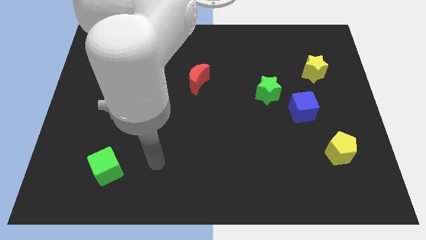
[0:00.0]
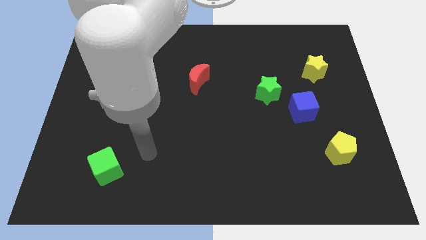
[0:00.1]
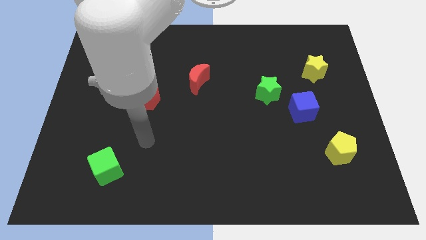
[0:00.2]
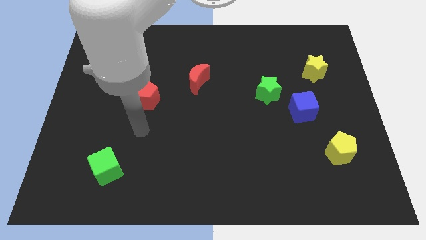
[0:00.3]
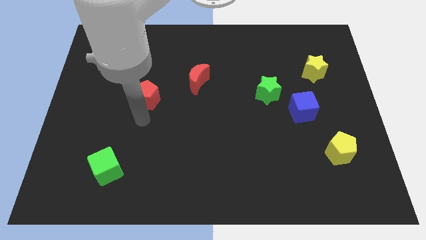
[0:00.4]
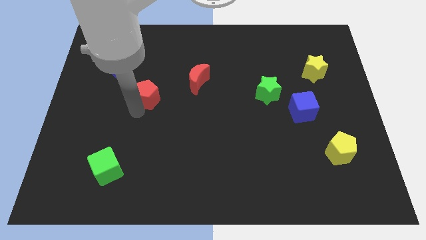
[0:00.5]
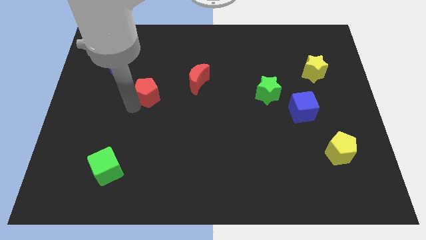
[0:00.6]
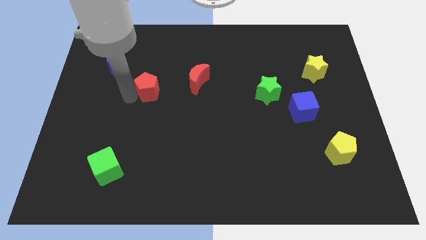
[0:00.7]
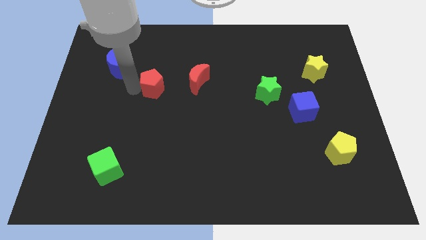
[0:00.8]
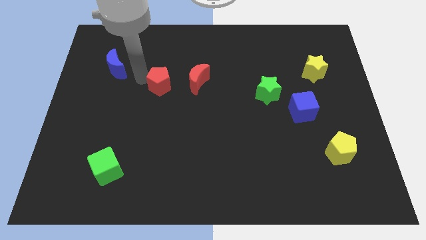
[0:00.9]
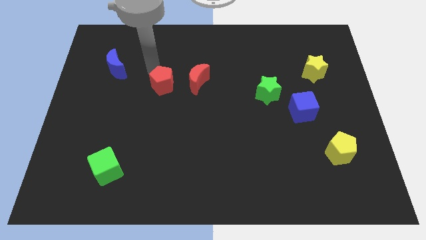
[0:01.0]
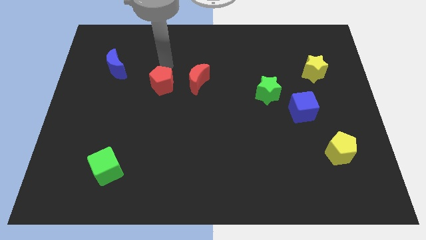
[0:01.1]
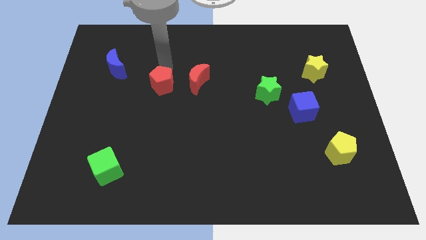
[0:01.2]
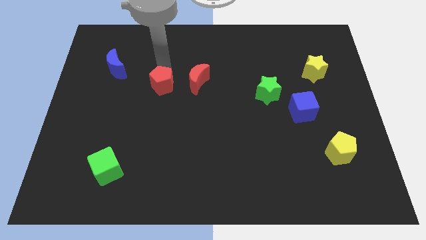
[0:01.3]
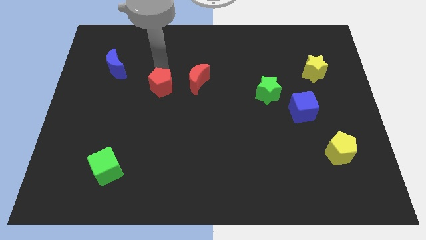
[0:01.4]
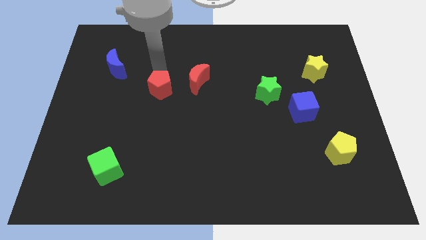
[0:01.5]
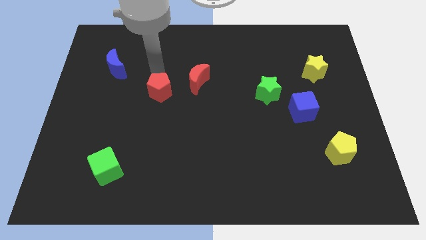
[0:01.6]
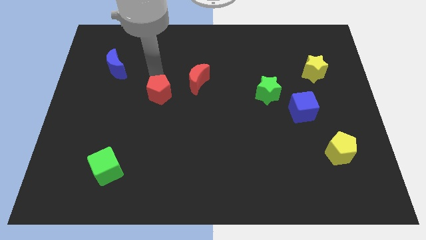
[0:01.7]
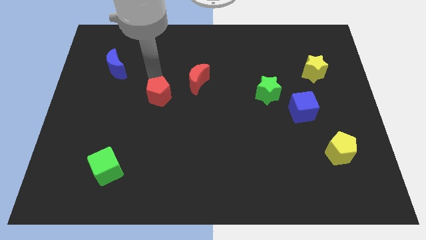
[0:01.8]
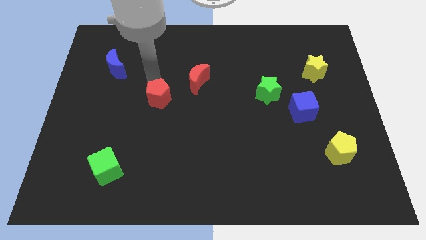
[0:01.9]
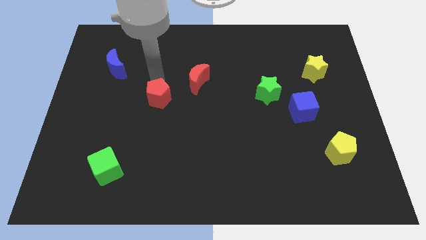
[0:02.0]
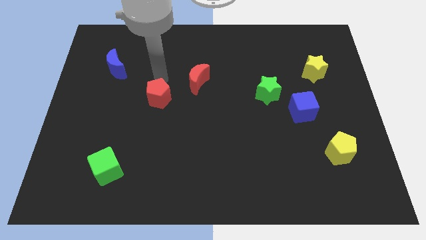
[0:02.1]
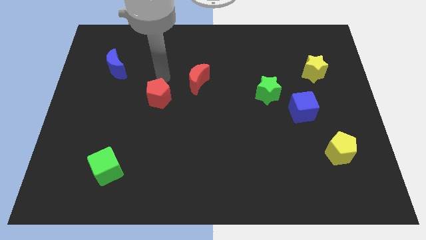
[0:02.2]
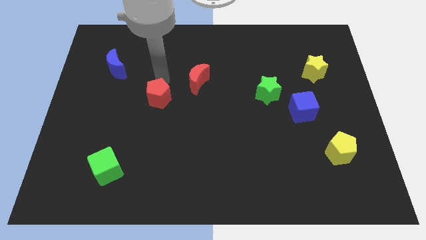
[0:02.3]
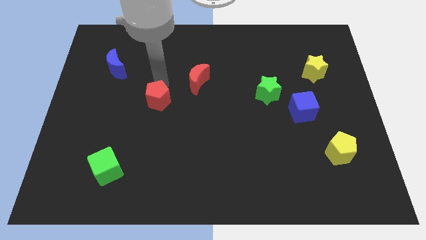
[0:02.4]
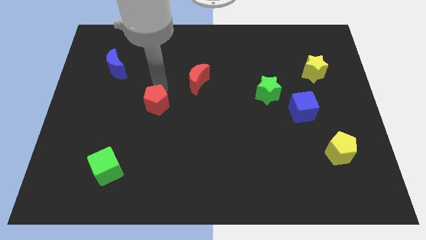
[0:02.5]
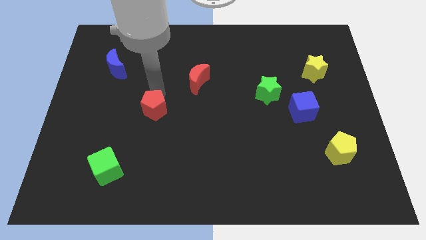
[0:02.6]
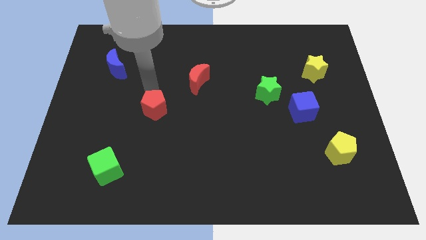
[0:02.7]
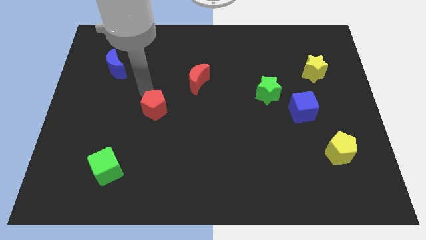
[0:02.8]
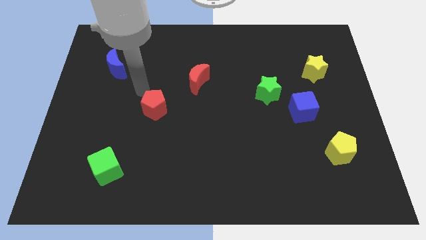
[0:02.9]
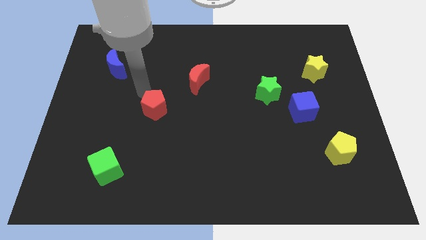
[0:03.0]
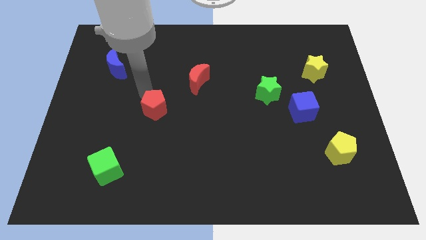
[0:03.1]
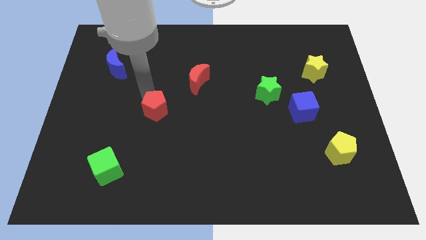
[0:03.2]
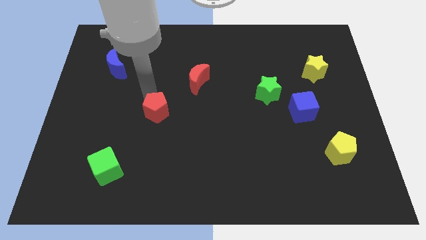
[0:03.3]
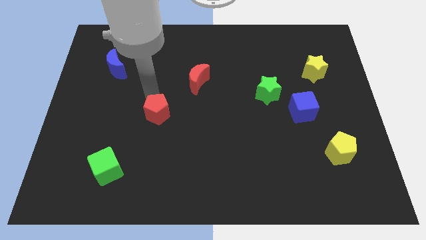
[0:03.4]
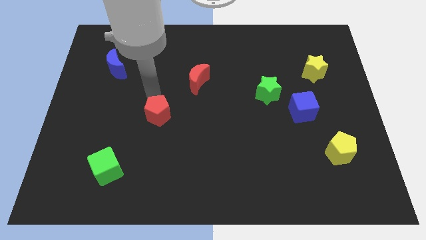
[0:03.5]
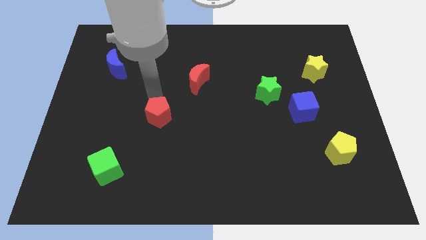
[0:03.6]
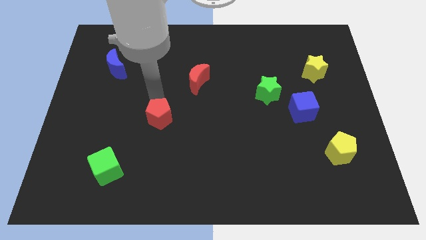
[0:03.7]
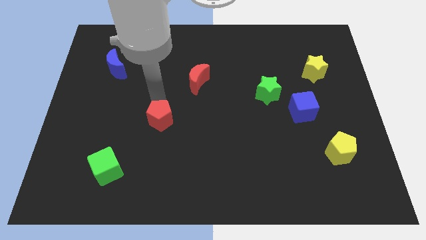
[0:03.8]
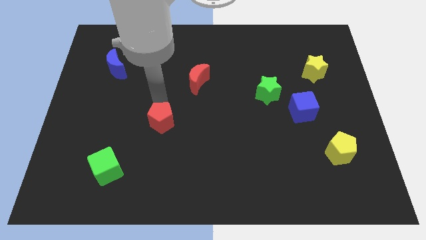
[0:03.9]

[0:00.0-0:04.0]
slightly move the red pentagon down and right

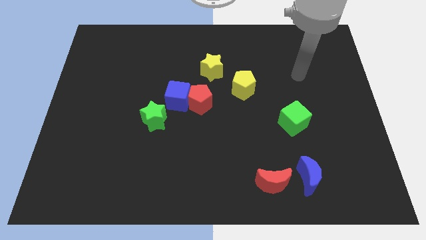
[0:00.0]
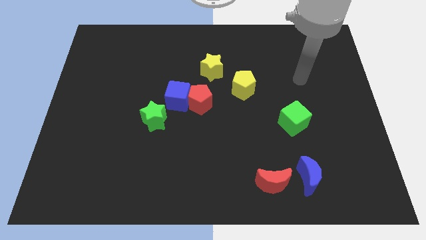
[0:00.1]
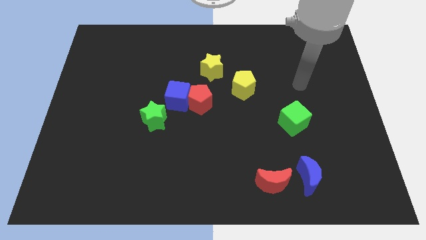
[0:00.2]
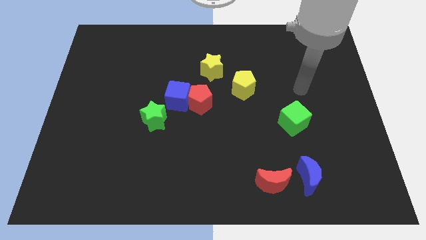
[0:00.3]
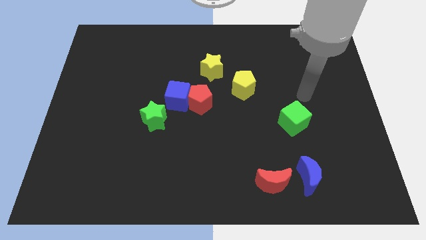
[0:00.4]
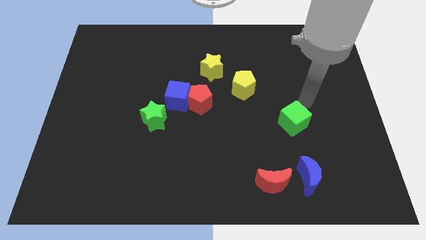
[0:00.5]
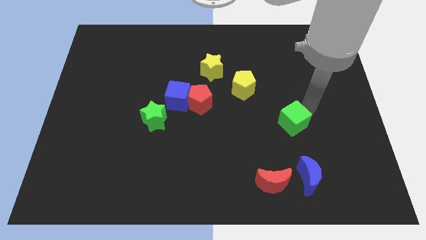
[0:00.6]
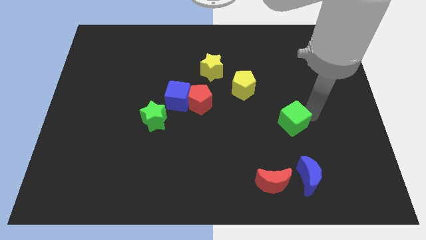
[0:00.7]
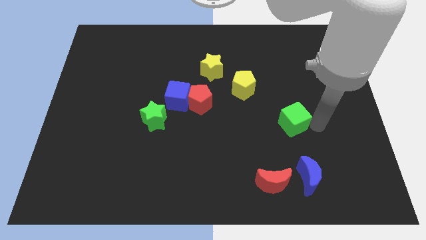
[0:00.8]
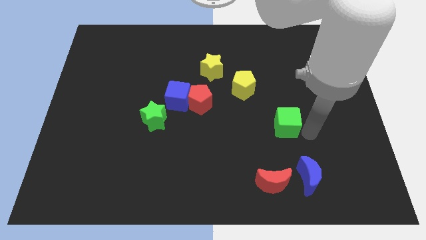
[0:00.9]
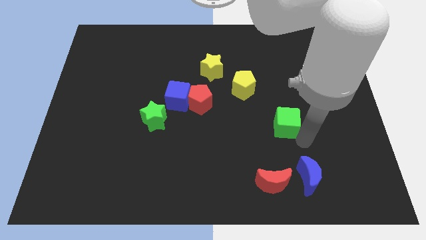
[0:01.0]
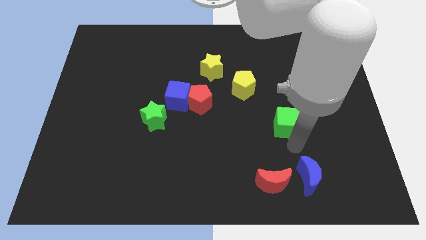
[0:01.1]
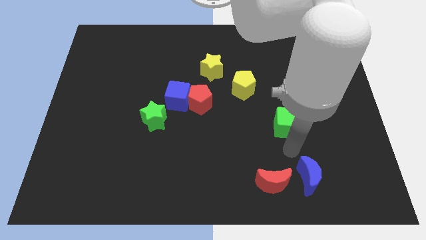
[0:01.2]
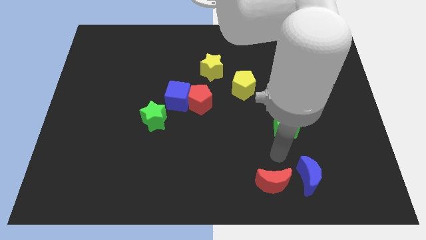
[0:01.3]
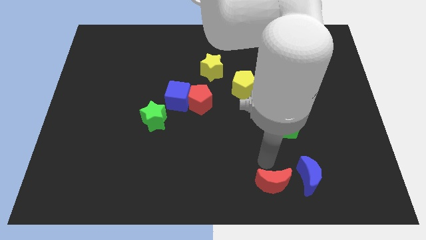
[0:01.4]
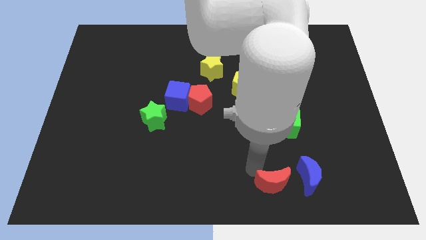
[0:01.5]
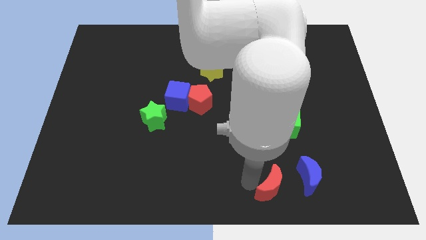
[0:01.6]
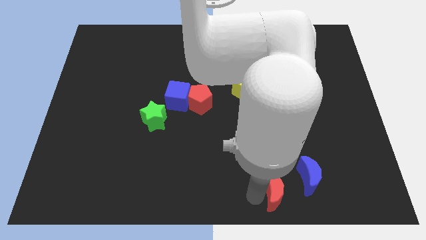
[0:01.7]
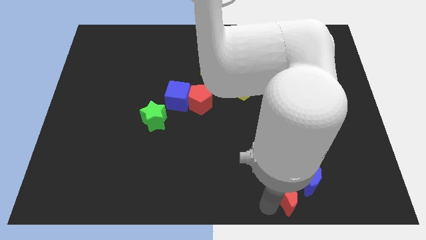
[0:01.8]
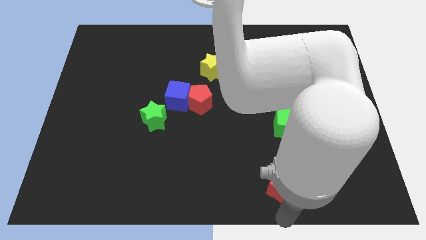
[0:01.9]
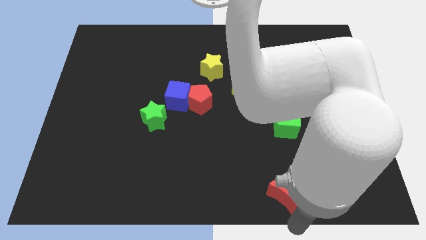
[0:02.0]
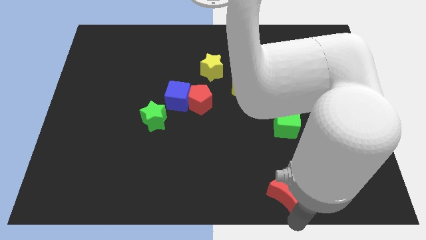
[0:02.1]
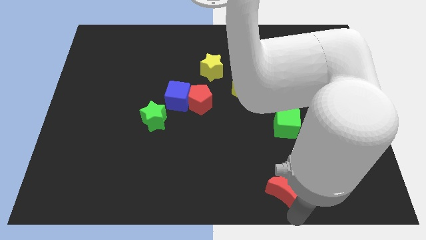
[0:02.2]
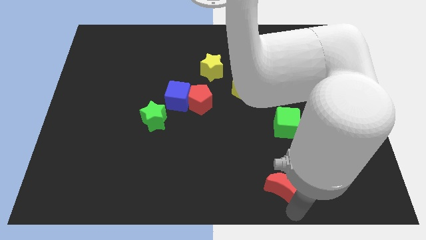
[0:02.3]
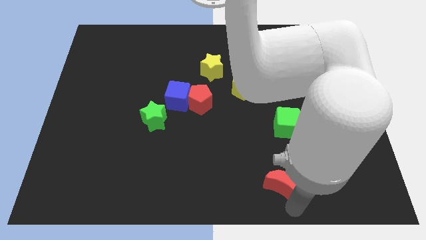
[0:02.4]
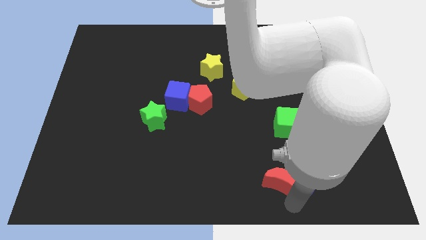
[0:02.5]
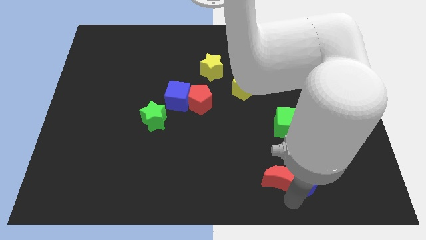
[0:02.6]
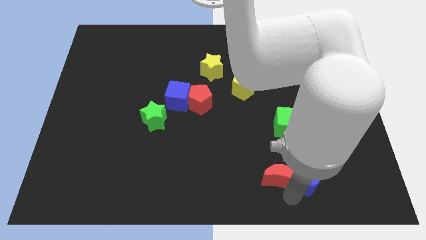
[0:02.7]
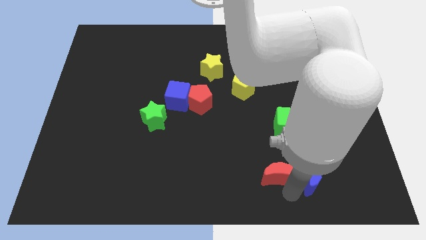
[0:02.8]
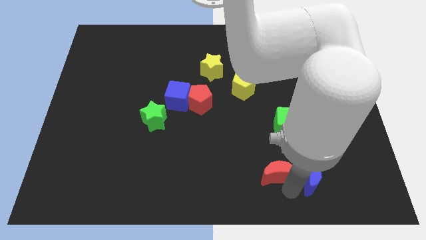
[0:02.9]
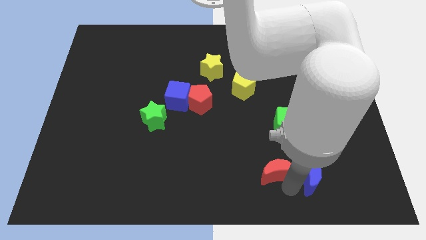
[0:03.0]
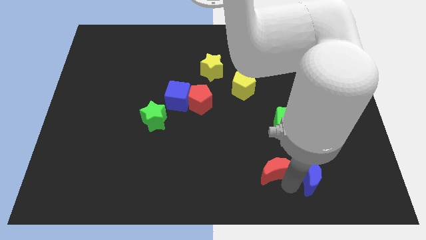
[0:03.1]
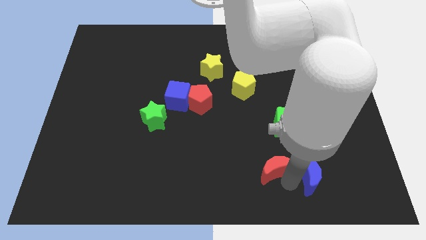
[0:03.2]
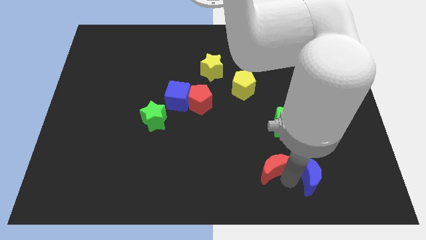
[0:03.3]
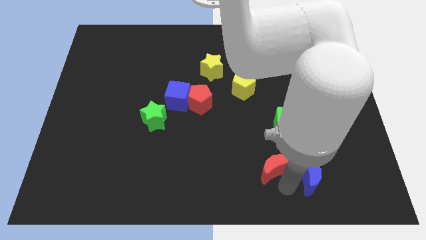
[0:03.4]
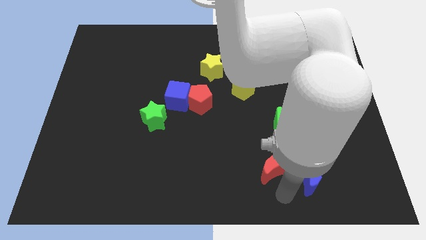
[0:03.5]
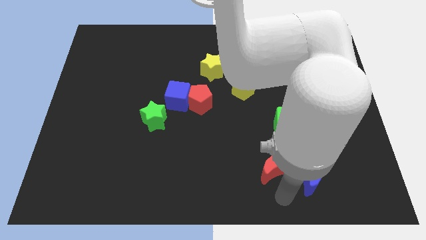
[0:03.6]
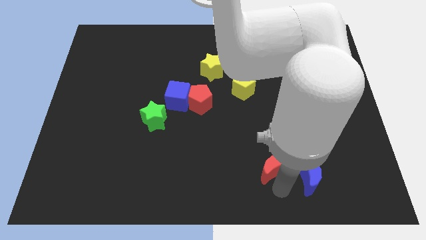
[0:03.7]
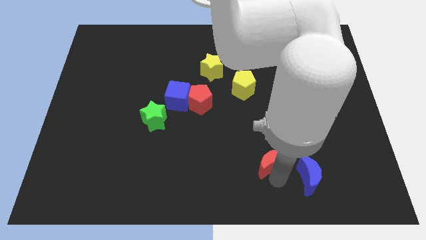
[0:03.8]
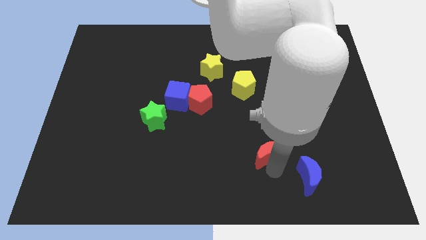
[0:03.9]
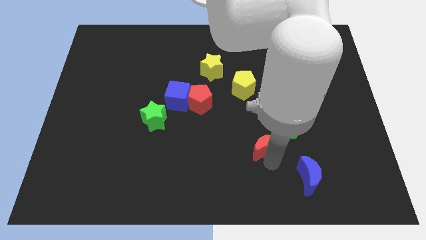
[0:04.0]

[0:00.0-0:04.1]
slightly push the red moon upwards

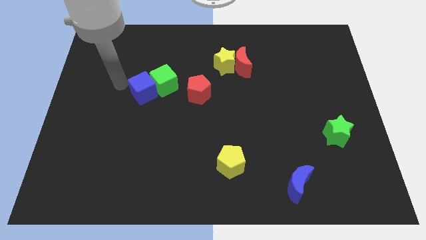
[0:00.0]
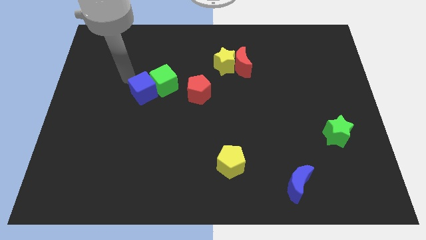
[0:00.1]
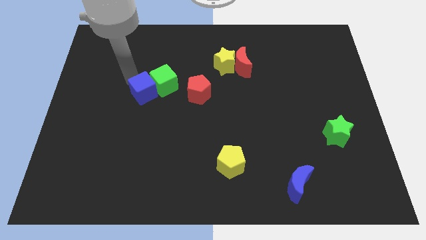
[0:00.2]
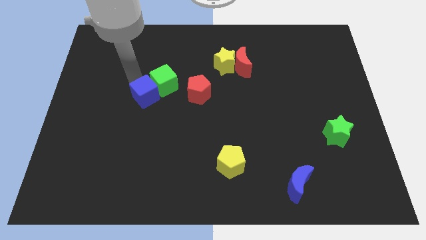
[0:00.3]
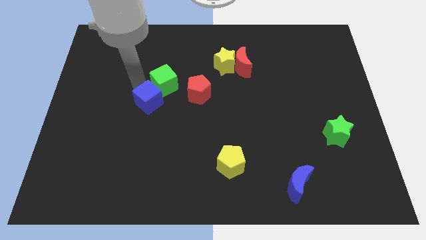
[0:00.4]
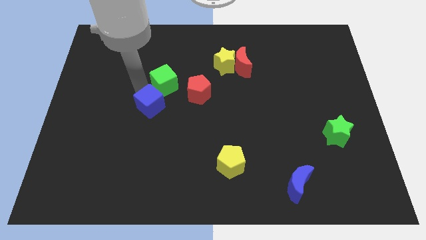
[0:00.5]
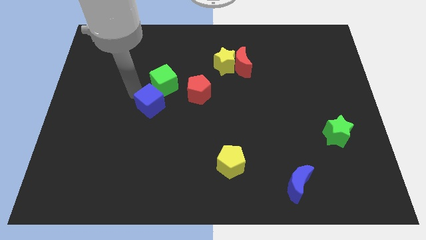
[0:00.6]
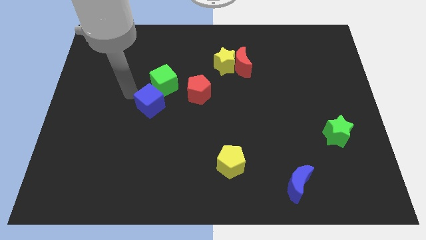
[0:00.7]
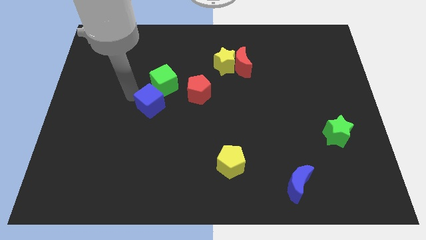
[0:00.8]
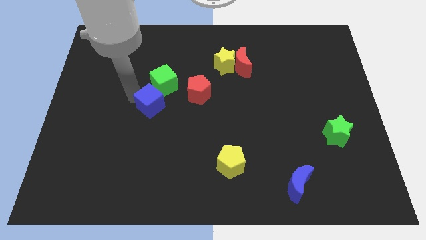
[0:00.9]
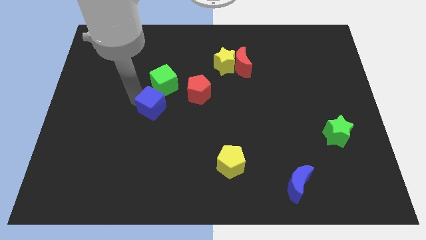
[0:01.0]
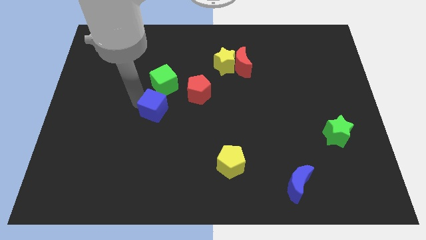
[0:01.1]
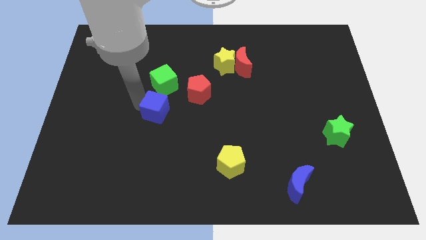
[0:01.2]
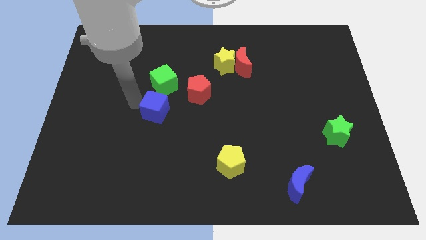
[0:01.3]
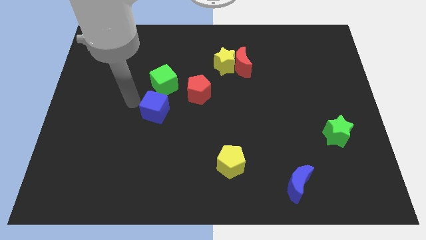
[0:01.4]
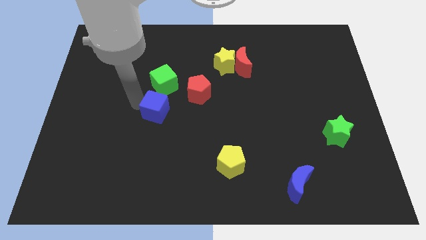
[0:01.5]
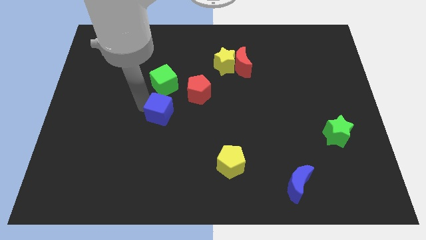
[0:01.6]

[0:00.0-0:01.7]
slightly slide the blue cube downwards and right diagonally
